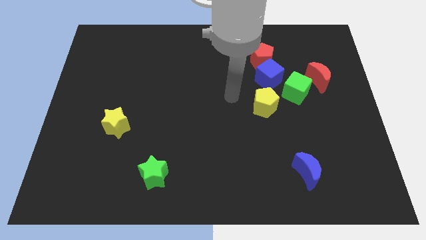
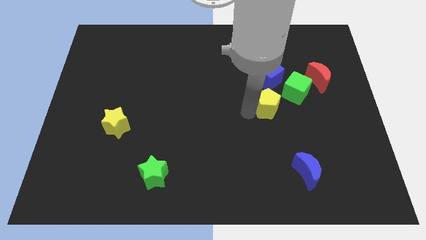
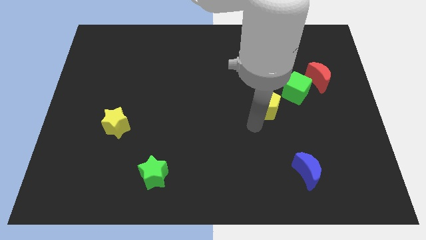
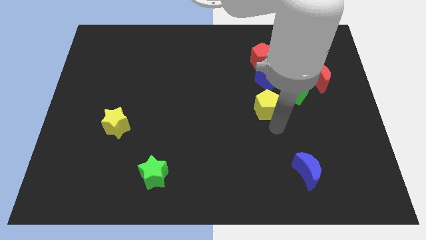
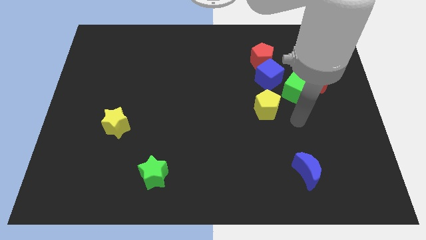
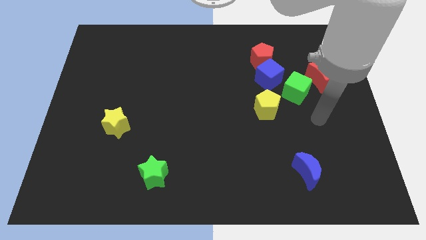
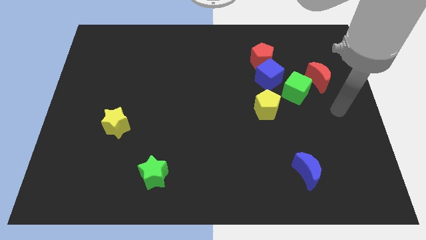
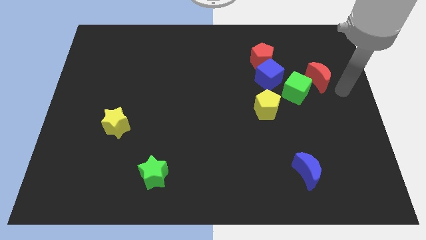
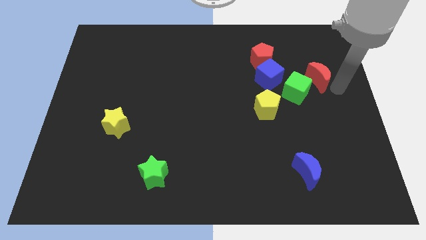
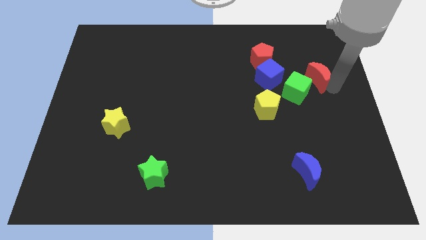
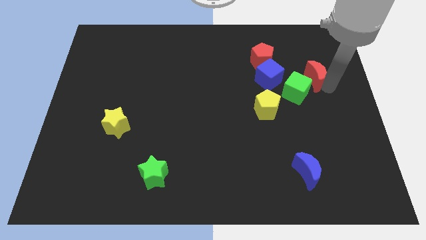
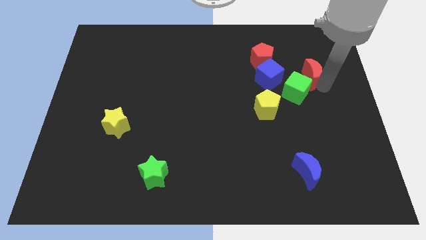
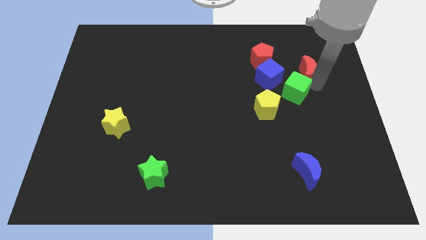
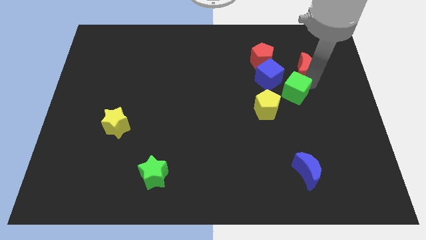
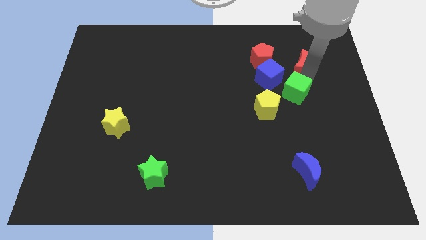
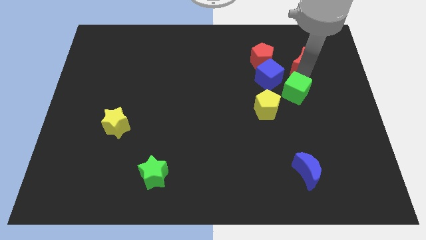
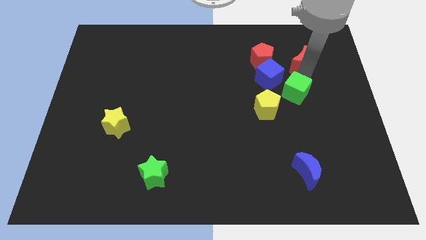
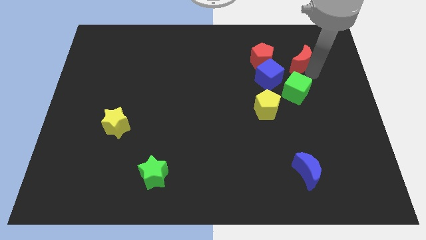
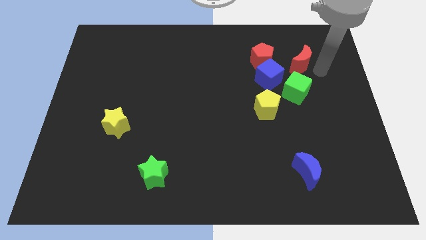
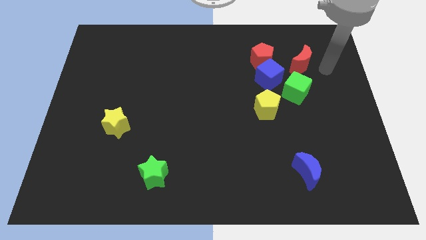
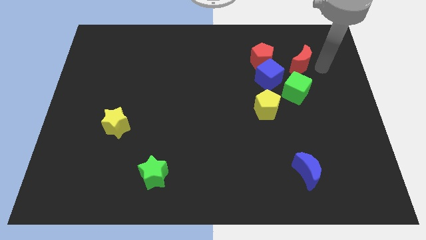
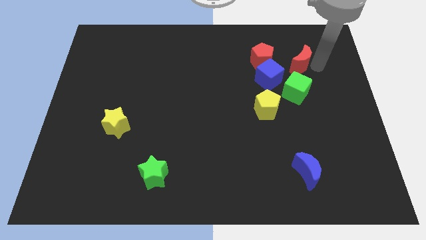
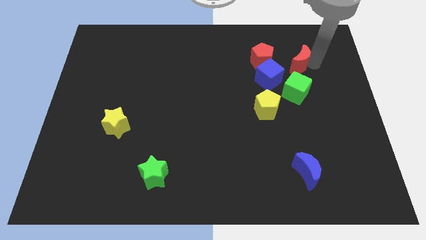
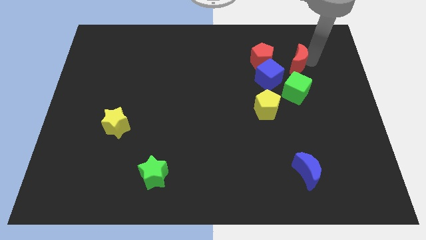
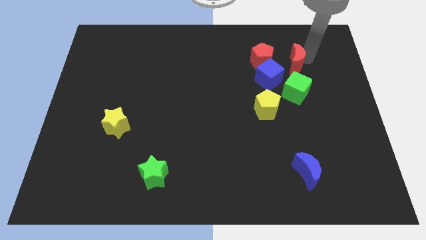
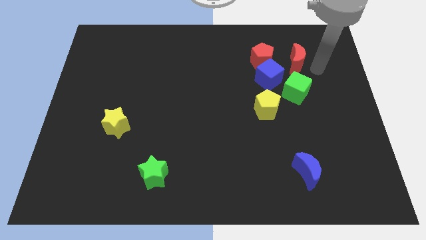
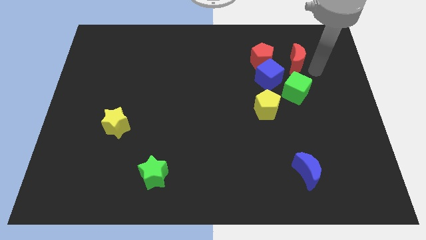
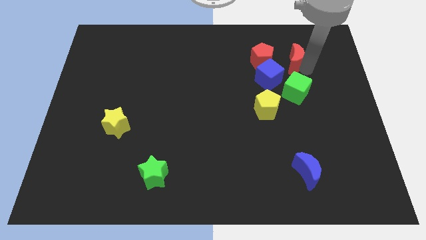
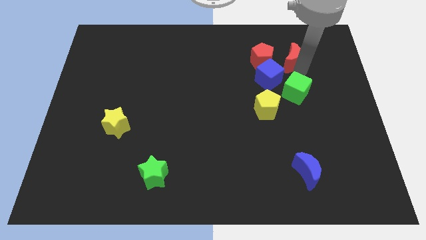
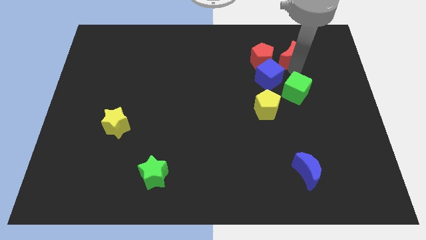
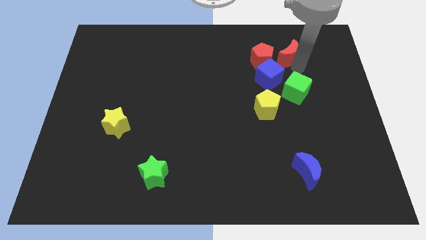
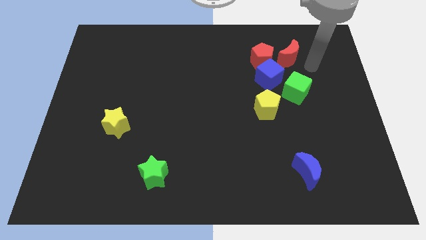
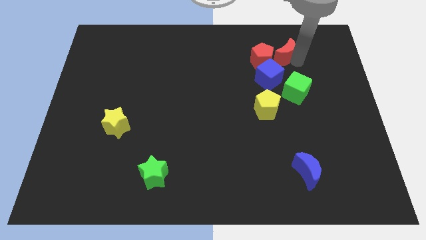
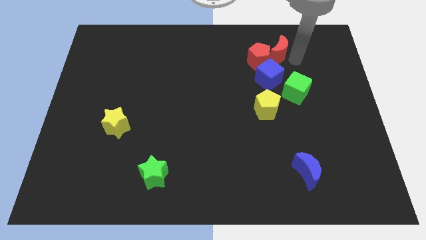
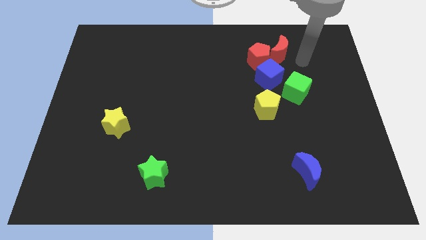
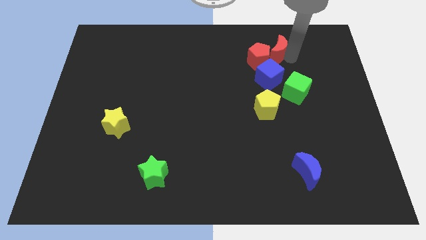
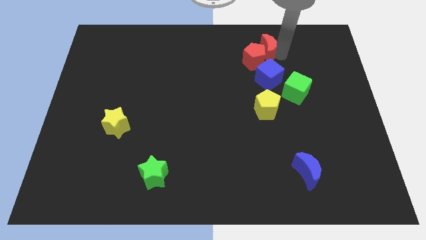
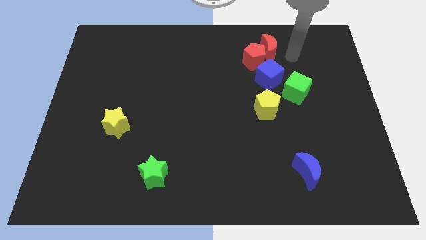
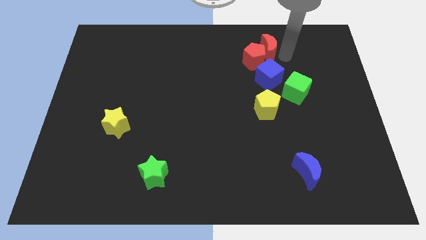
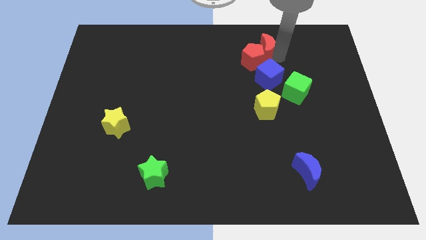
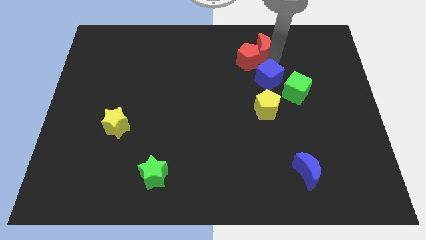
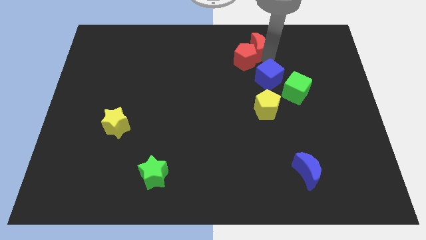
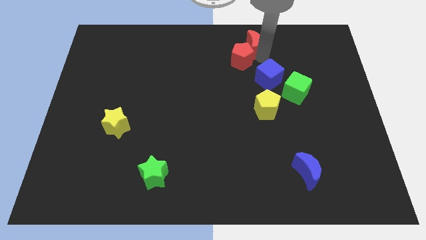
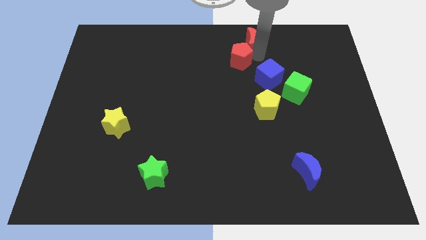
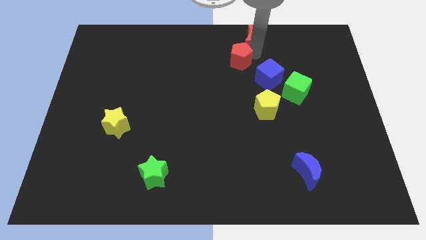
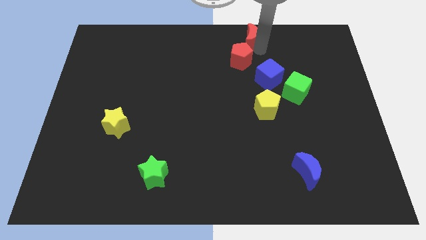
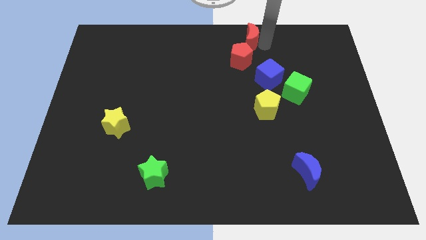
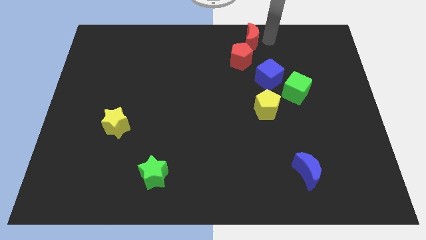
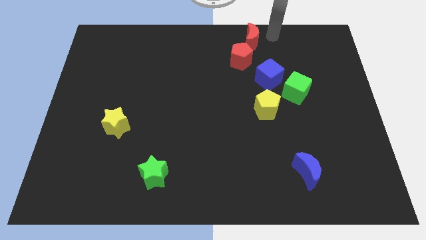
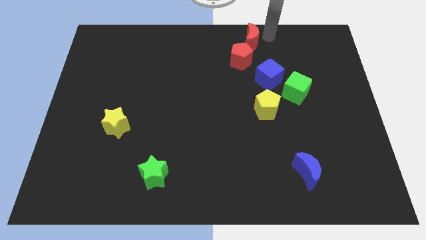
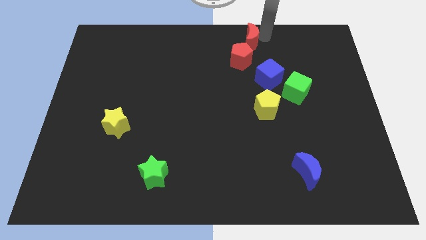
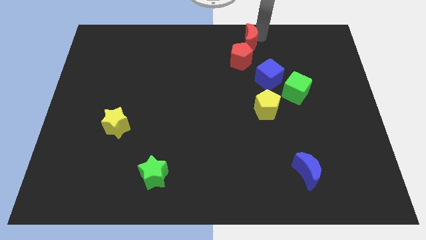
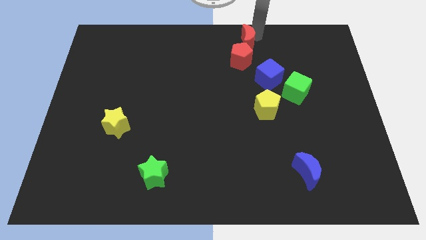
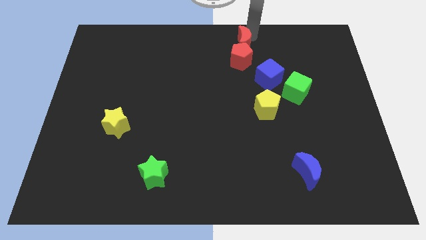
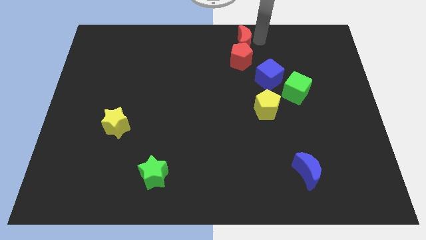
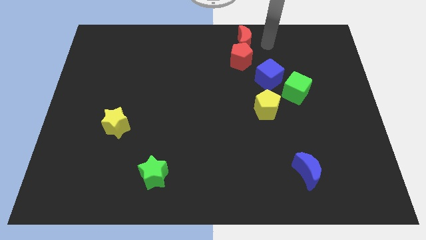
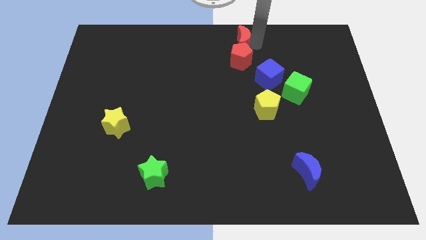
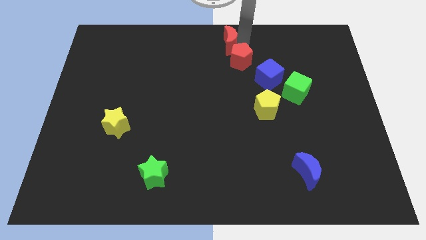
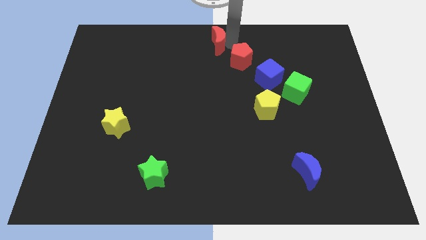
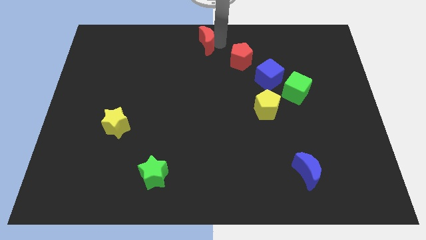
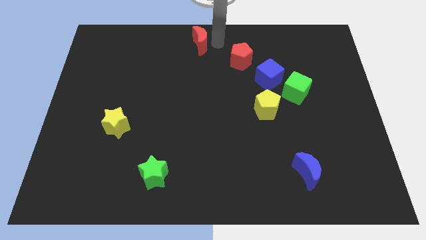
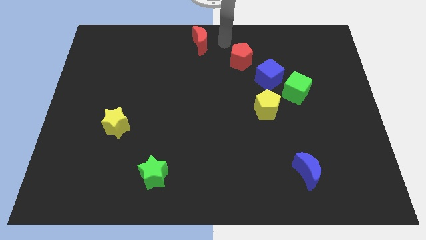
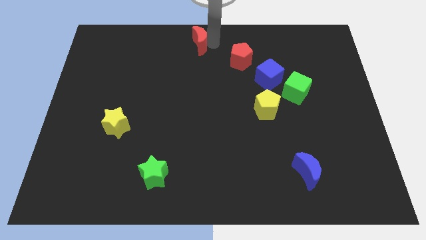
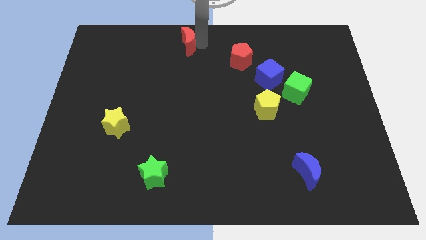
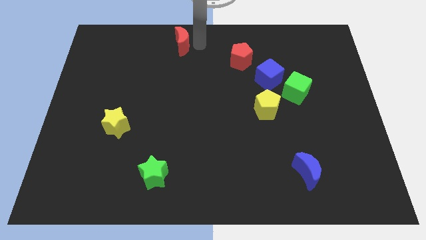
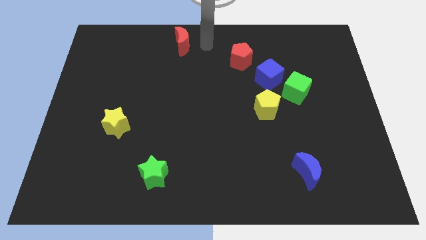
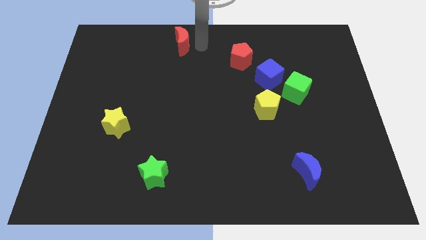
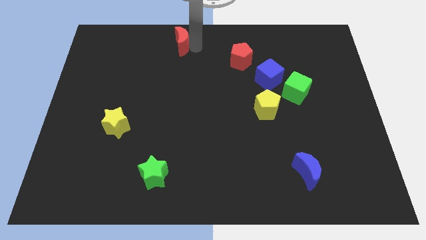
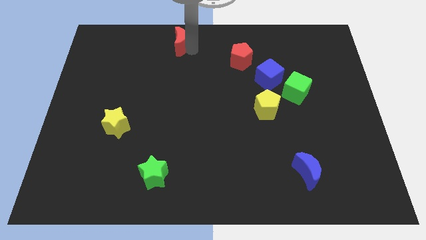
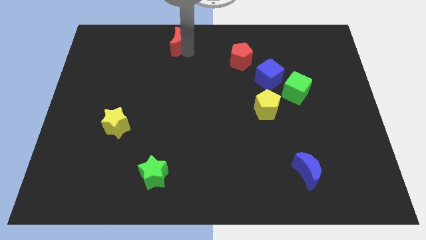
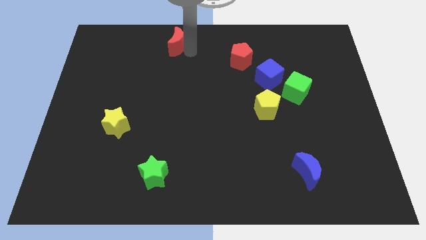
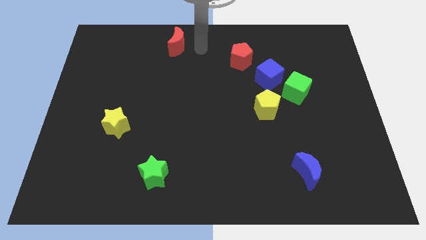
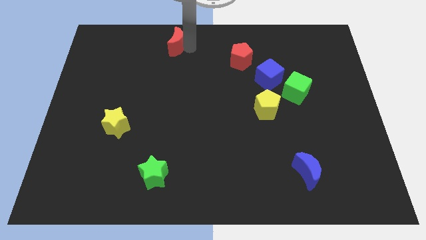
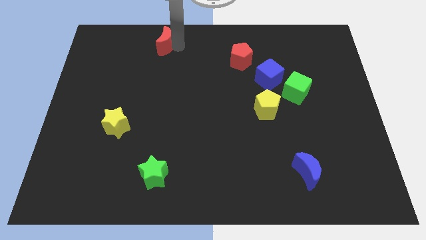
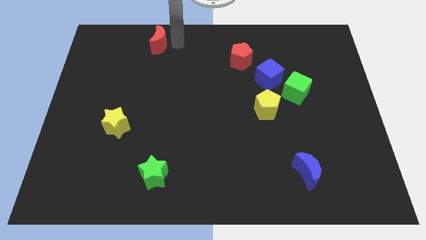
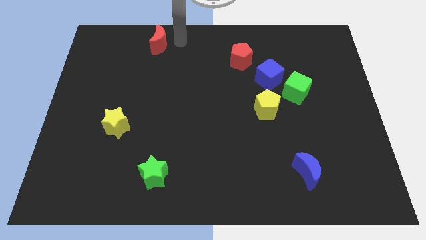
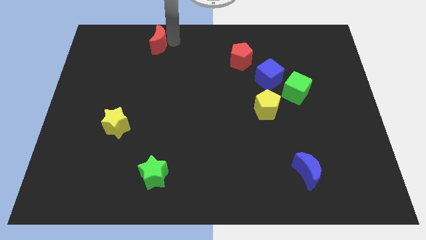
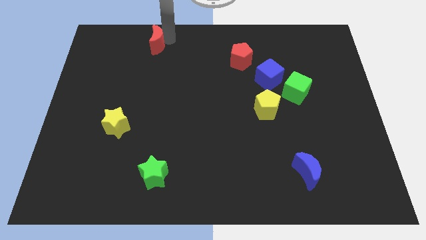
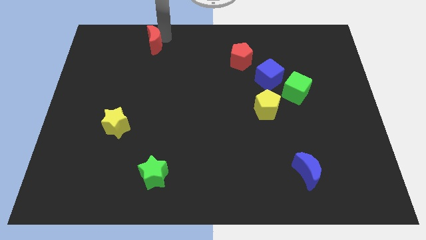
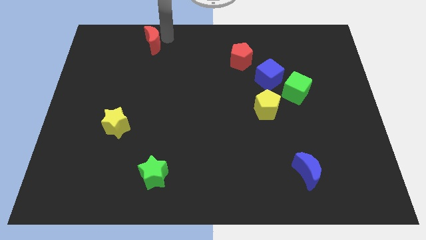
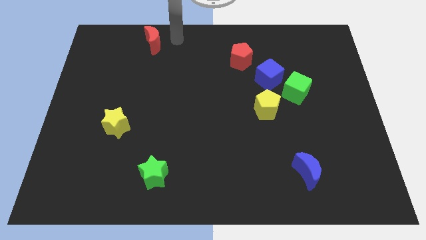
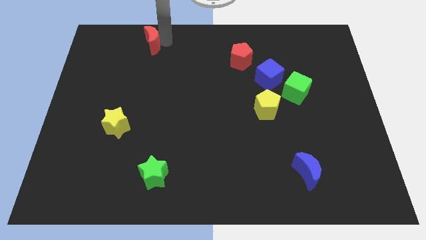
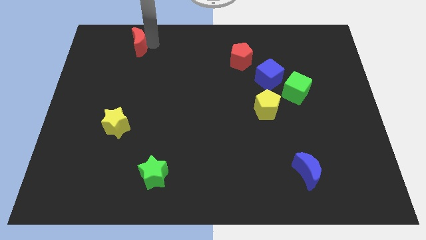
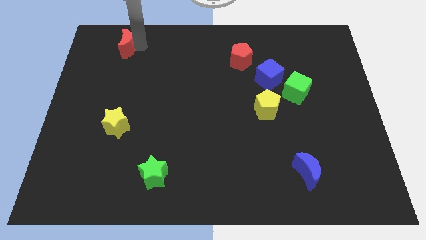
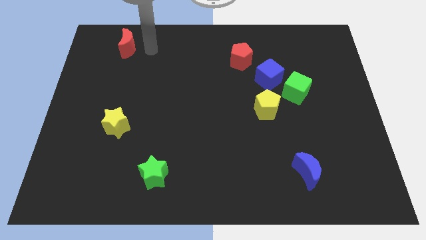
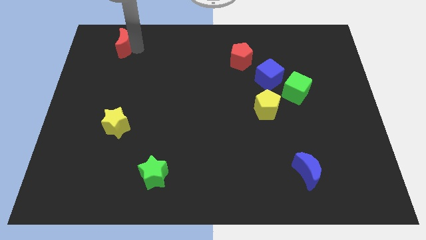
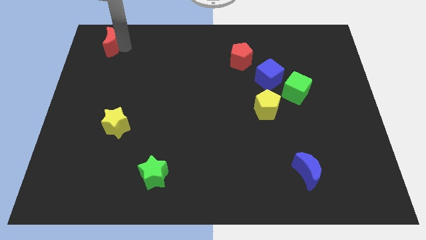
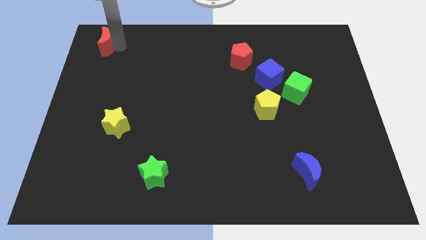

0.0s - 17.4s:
put the red moon to the upper left corner
